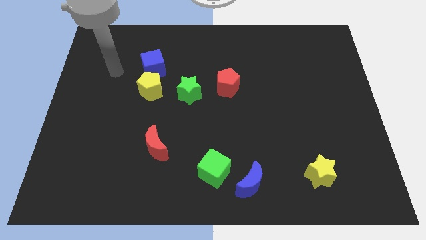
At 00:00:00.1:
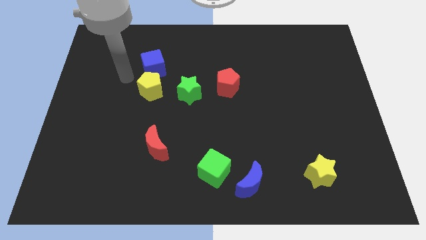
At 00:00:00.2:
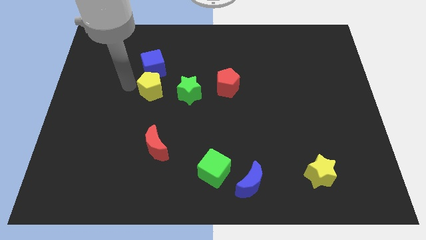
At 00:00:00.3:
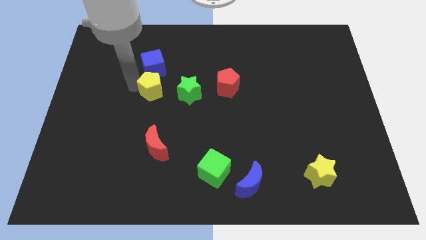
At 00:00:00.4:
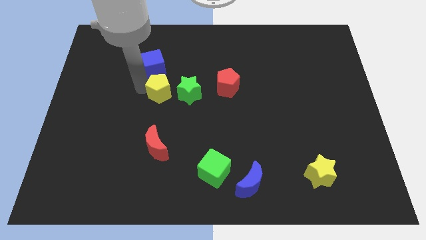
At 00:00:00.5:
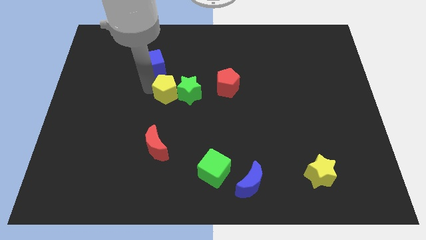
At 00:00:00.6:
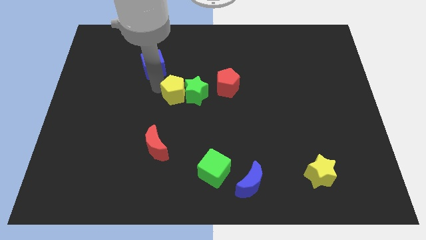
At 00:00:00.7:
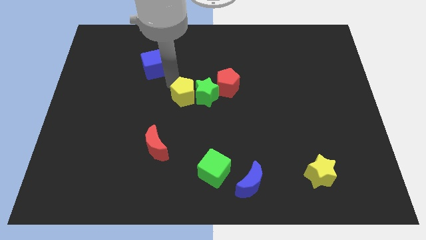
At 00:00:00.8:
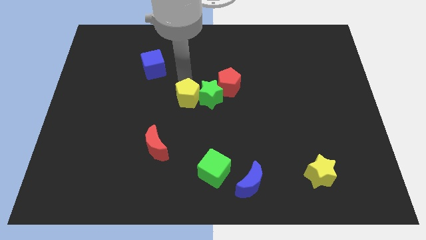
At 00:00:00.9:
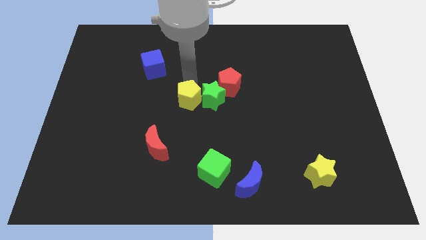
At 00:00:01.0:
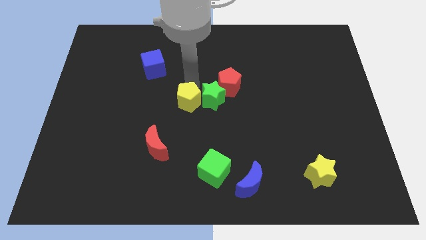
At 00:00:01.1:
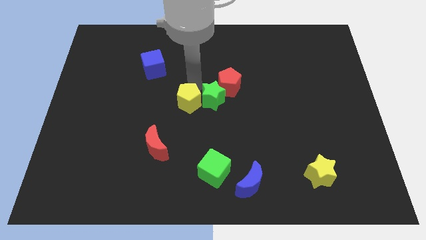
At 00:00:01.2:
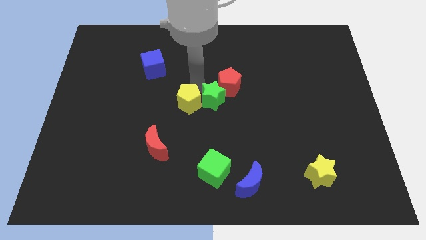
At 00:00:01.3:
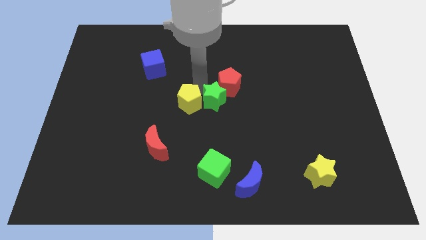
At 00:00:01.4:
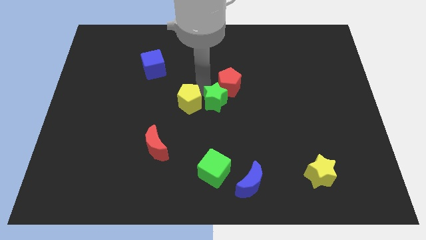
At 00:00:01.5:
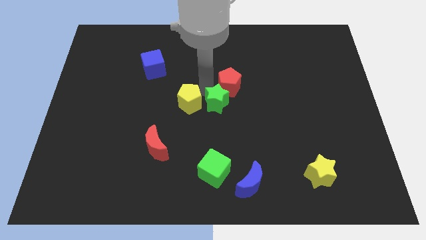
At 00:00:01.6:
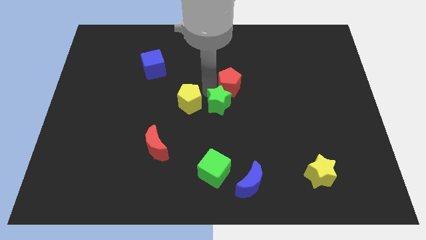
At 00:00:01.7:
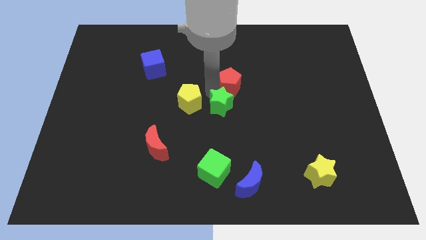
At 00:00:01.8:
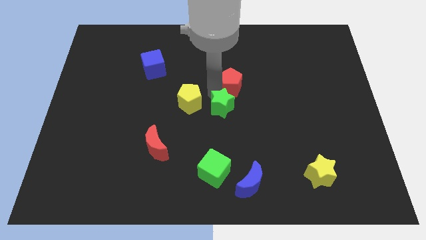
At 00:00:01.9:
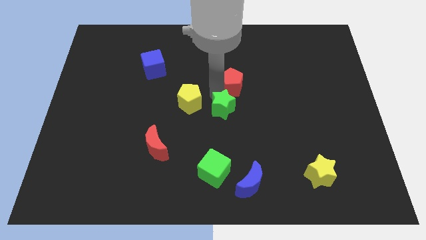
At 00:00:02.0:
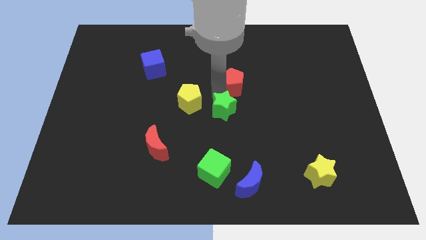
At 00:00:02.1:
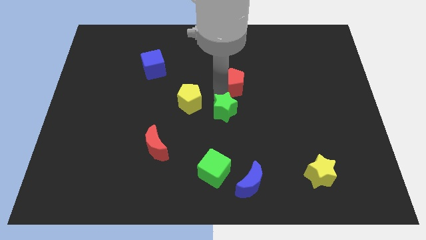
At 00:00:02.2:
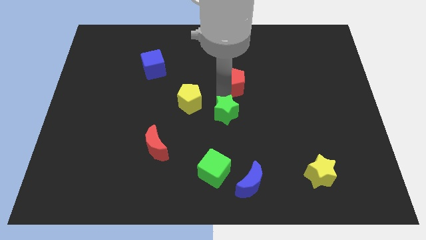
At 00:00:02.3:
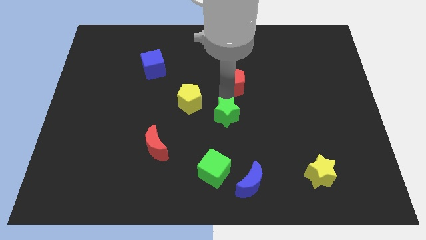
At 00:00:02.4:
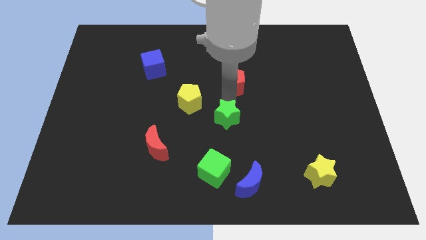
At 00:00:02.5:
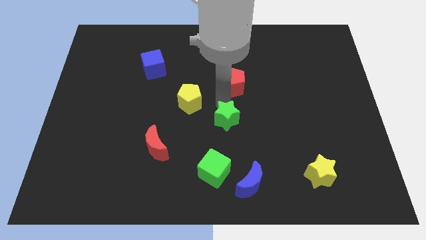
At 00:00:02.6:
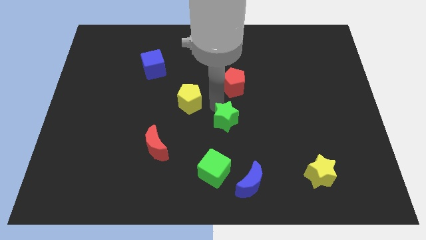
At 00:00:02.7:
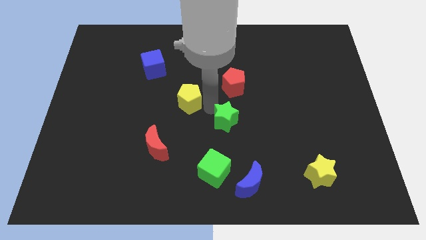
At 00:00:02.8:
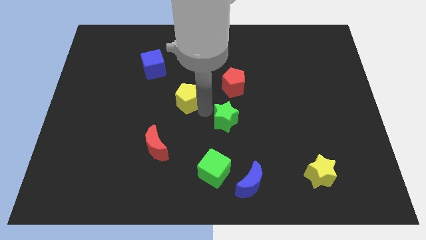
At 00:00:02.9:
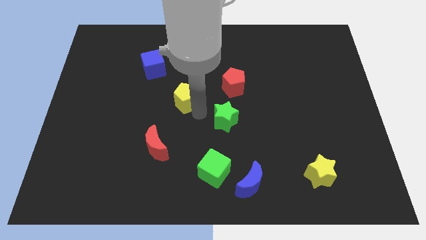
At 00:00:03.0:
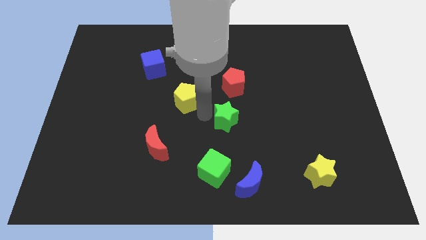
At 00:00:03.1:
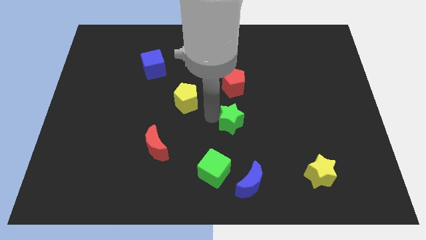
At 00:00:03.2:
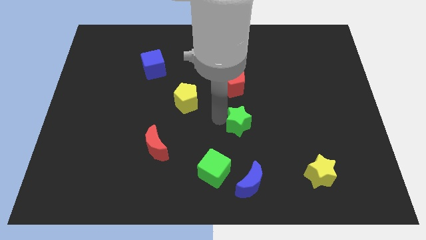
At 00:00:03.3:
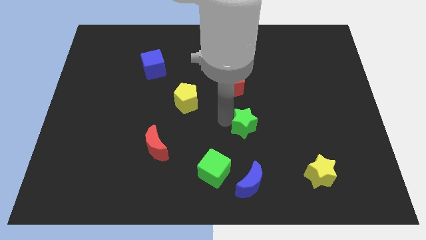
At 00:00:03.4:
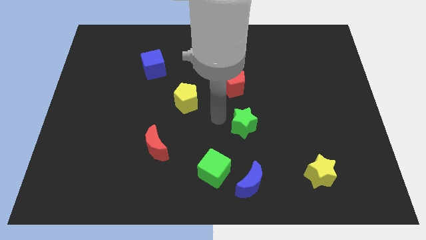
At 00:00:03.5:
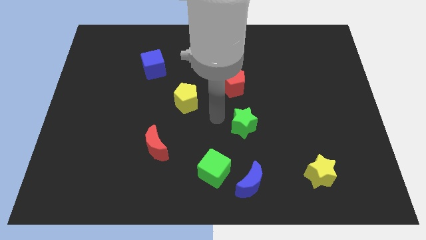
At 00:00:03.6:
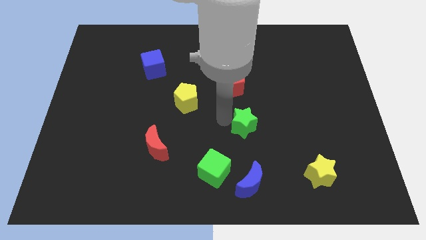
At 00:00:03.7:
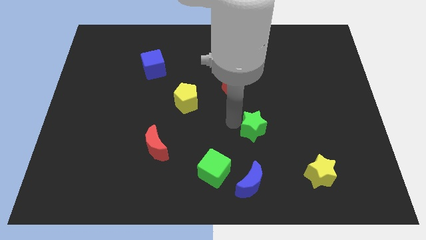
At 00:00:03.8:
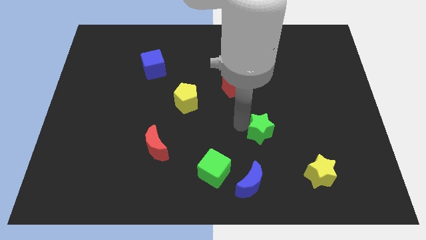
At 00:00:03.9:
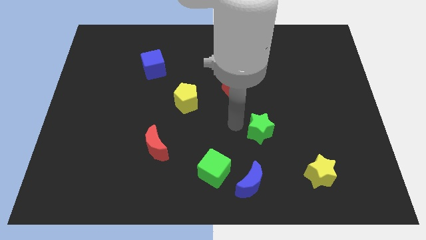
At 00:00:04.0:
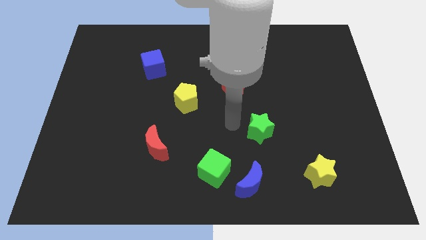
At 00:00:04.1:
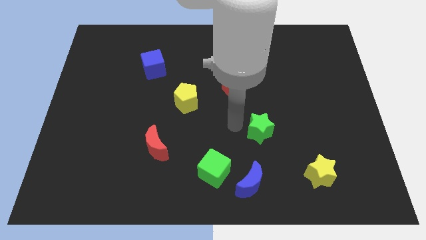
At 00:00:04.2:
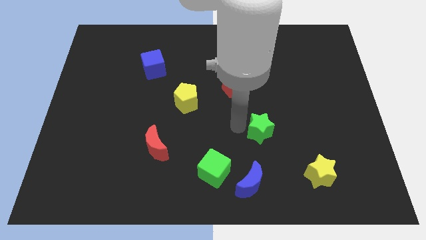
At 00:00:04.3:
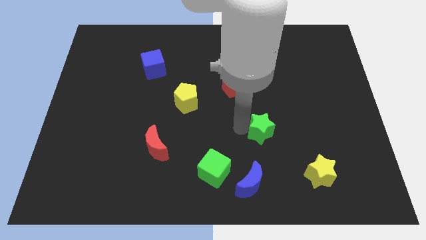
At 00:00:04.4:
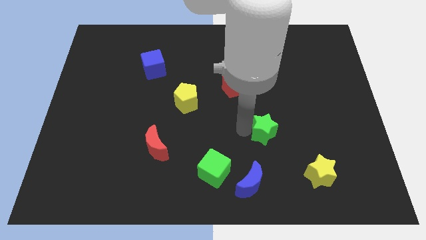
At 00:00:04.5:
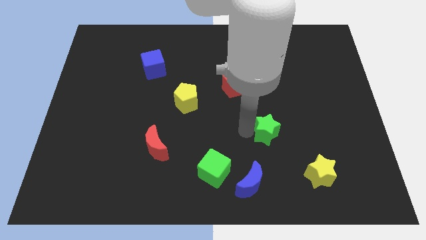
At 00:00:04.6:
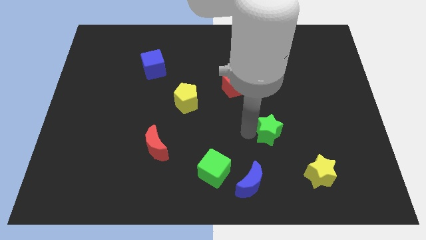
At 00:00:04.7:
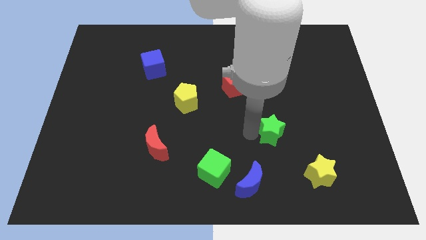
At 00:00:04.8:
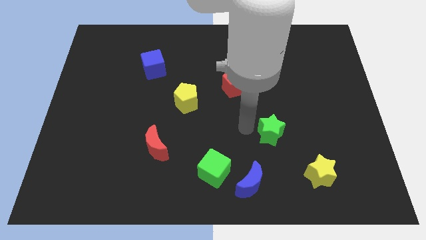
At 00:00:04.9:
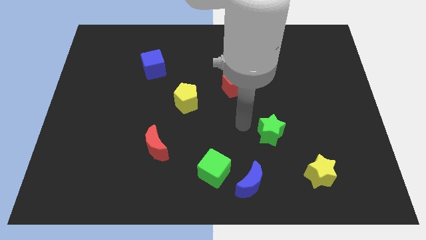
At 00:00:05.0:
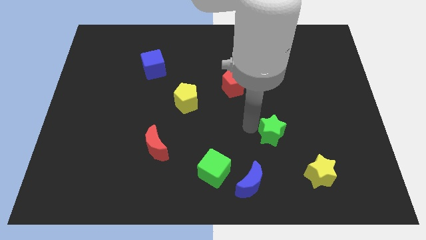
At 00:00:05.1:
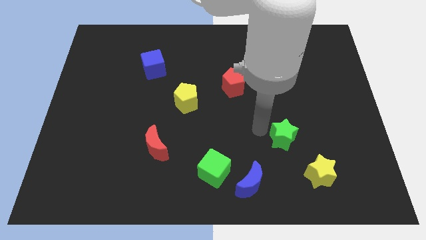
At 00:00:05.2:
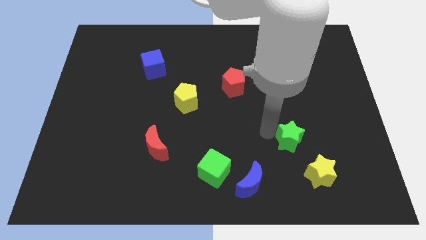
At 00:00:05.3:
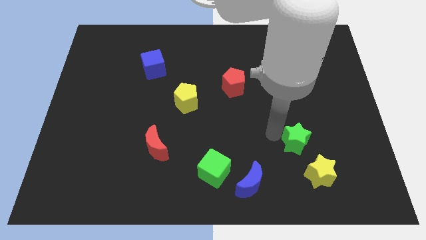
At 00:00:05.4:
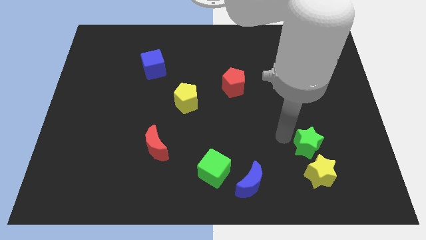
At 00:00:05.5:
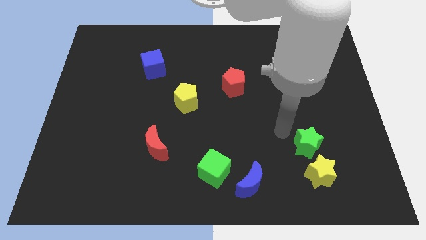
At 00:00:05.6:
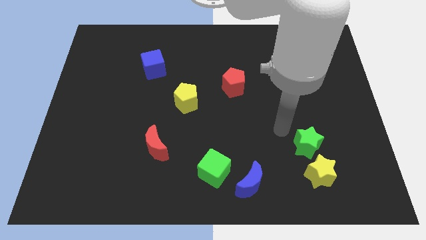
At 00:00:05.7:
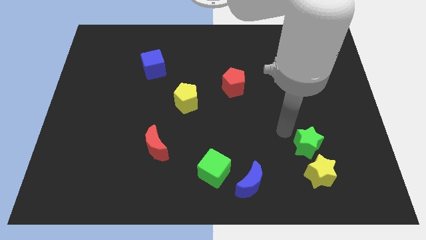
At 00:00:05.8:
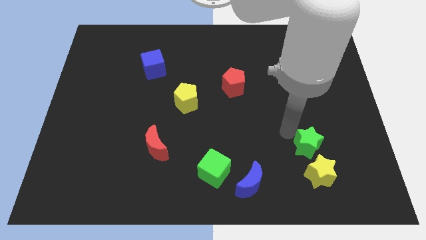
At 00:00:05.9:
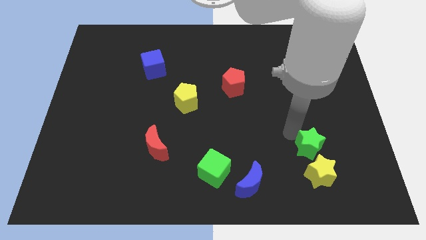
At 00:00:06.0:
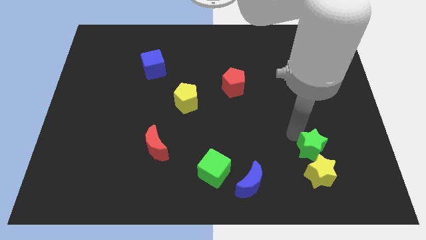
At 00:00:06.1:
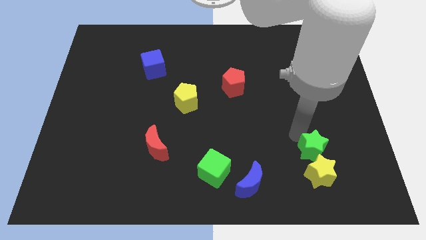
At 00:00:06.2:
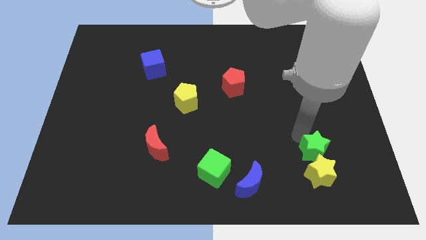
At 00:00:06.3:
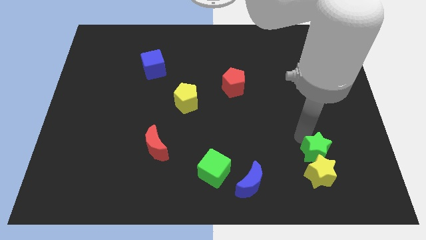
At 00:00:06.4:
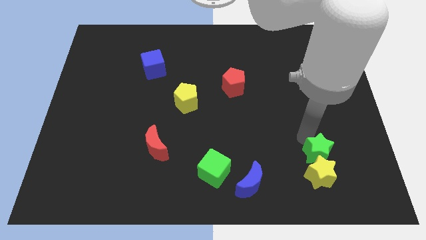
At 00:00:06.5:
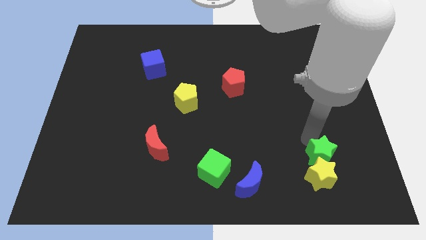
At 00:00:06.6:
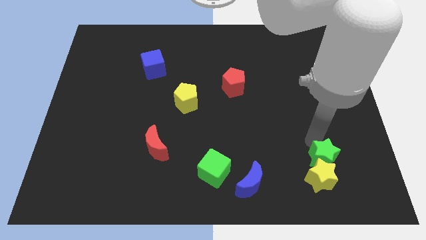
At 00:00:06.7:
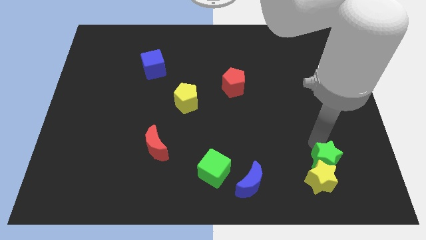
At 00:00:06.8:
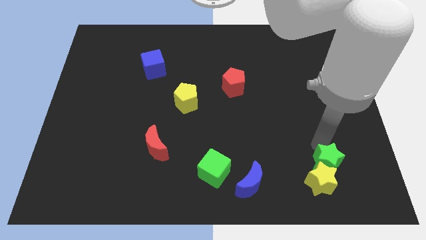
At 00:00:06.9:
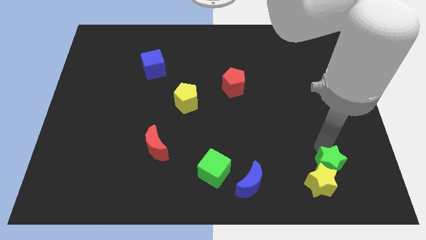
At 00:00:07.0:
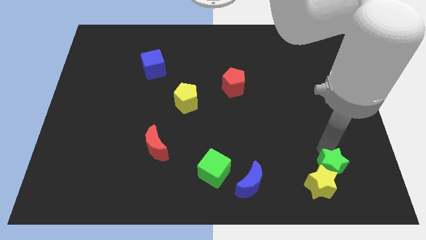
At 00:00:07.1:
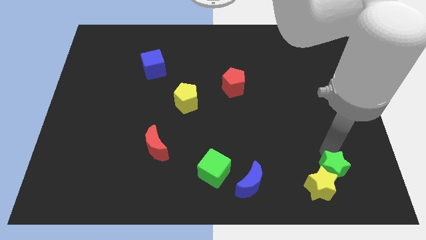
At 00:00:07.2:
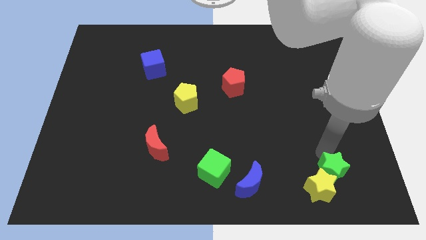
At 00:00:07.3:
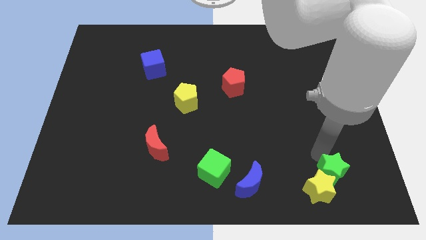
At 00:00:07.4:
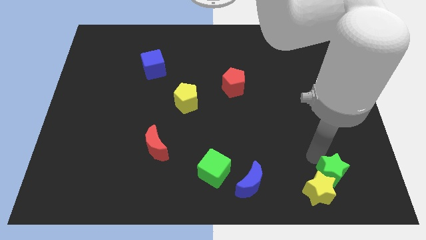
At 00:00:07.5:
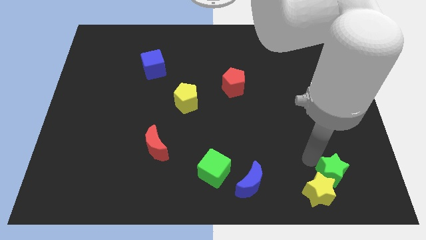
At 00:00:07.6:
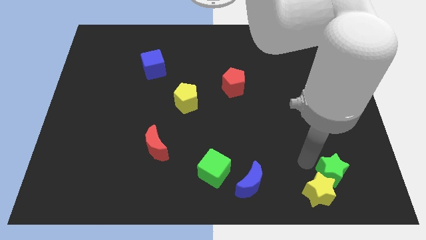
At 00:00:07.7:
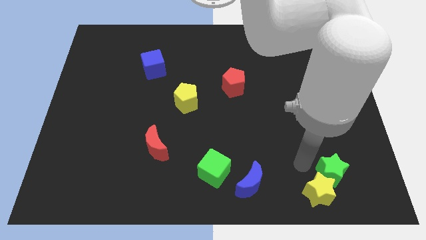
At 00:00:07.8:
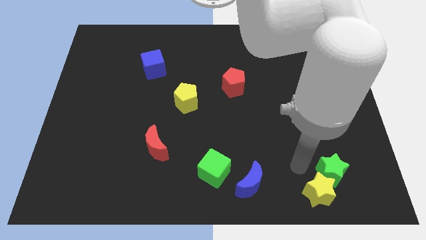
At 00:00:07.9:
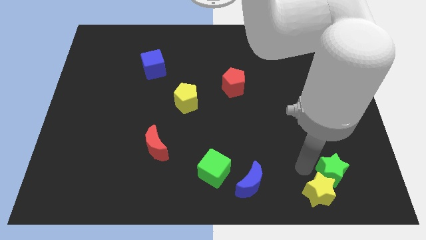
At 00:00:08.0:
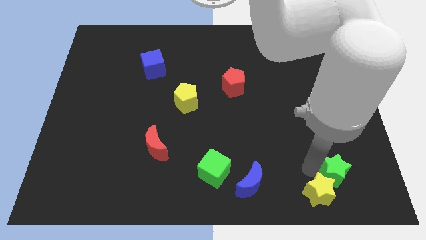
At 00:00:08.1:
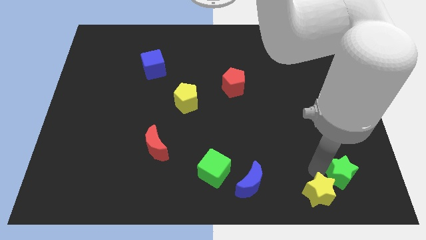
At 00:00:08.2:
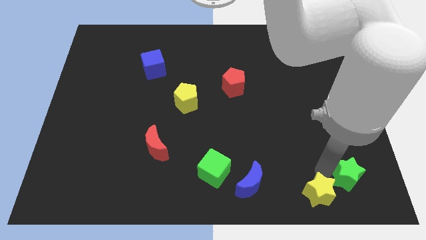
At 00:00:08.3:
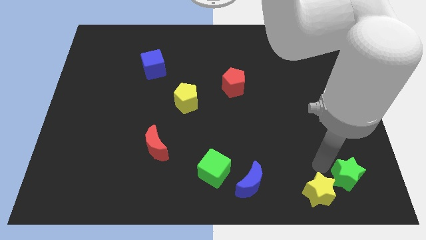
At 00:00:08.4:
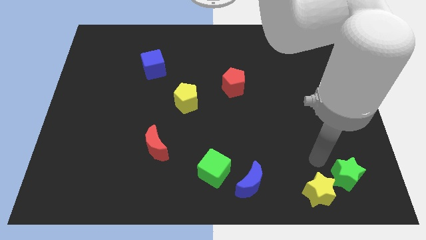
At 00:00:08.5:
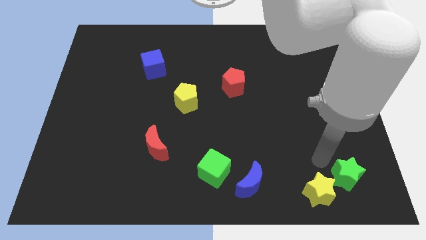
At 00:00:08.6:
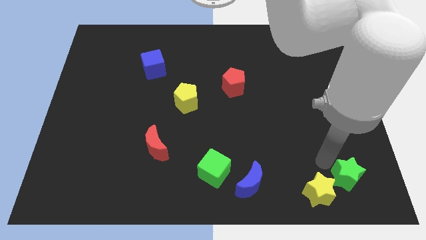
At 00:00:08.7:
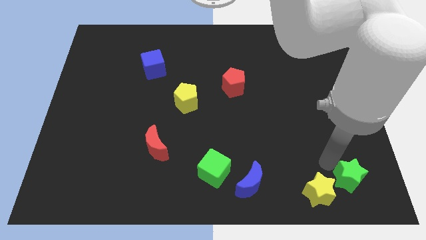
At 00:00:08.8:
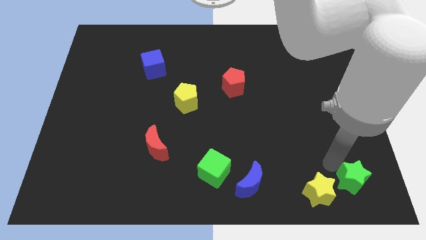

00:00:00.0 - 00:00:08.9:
put the green star to the bottom right
